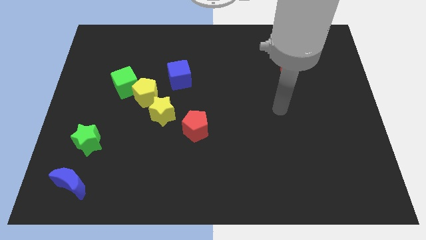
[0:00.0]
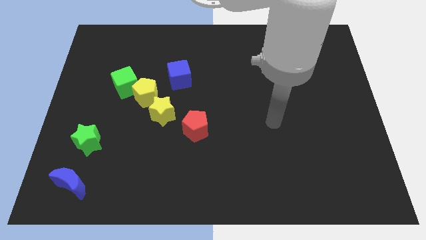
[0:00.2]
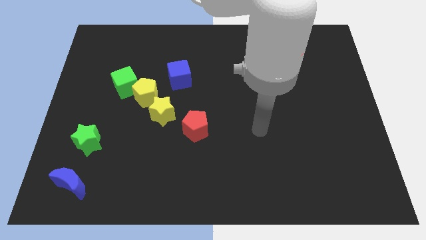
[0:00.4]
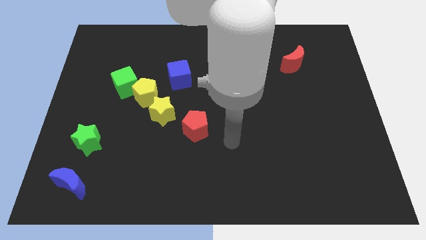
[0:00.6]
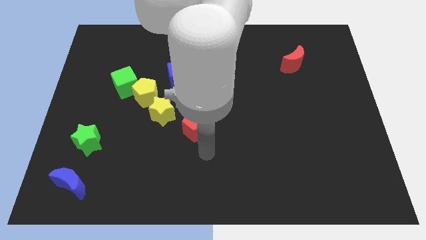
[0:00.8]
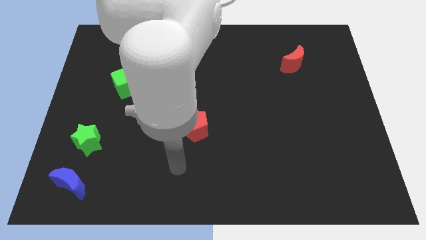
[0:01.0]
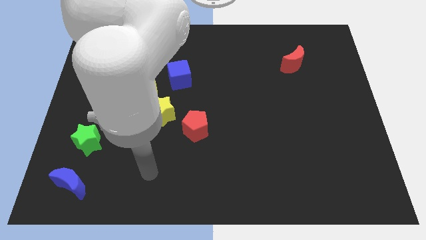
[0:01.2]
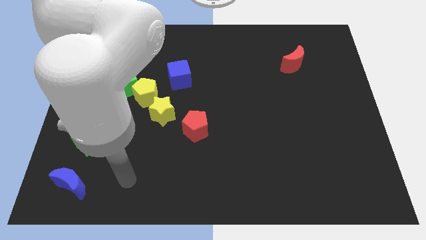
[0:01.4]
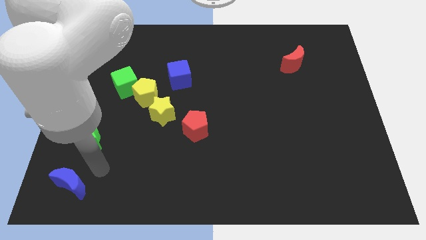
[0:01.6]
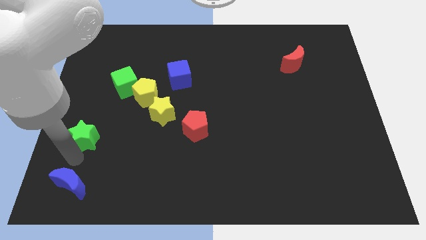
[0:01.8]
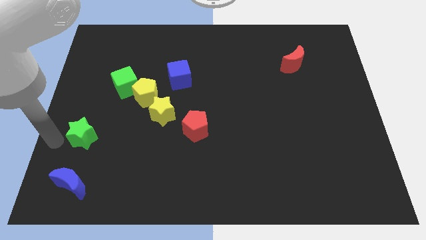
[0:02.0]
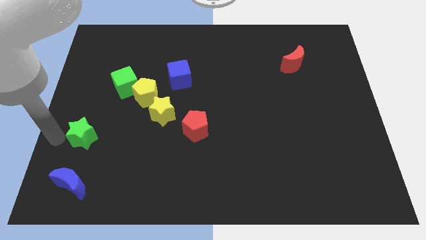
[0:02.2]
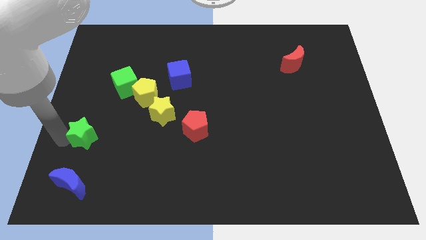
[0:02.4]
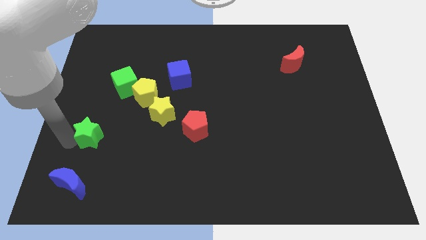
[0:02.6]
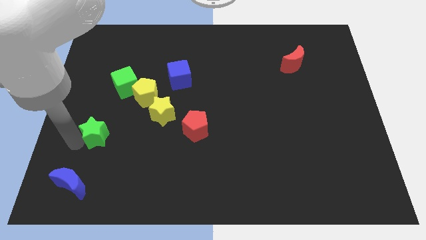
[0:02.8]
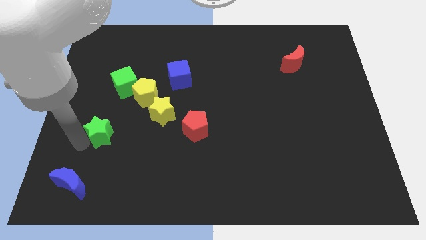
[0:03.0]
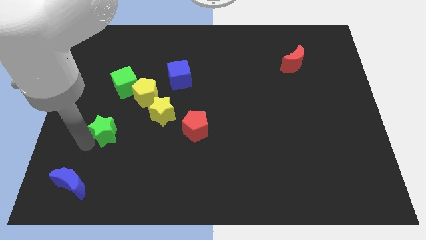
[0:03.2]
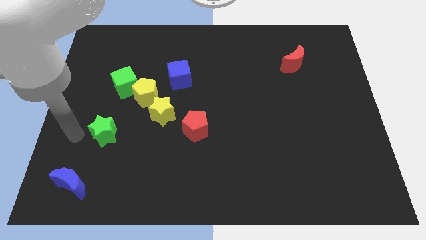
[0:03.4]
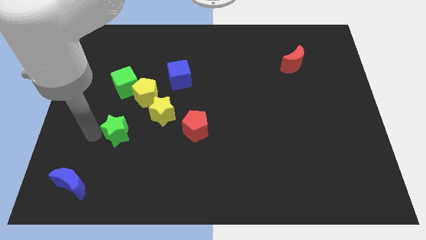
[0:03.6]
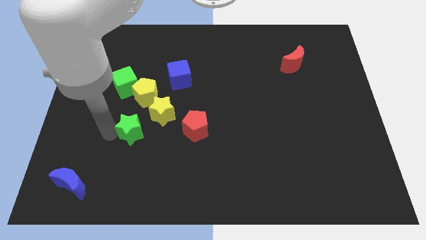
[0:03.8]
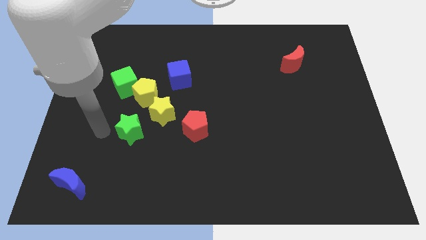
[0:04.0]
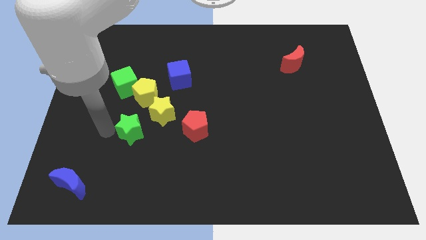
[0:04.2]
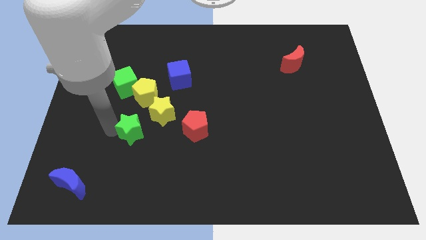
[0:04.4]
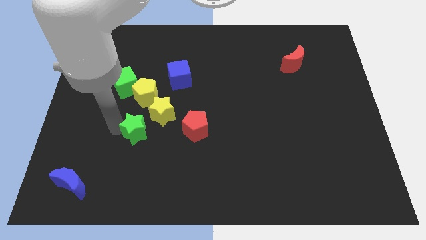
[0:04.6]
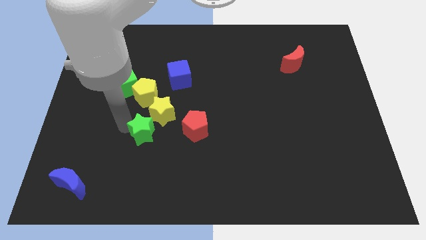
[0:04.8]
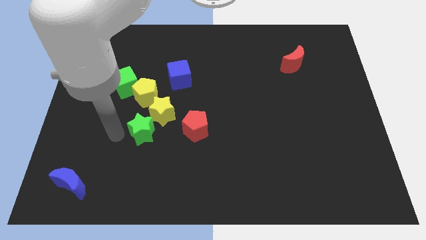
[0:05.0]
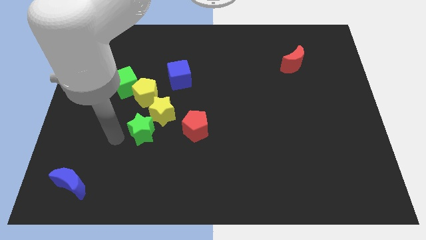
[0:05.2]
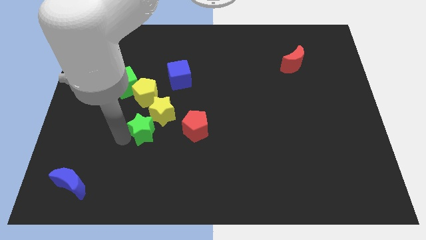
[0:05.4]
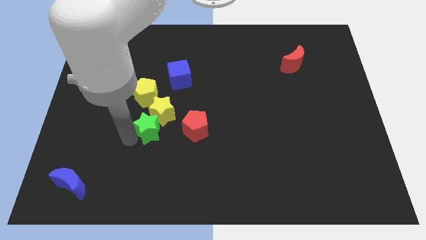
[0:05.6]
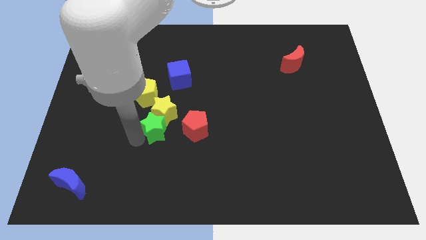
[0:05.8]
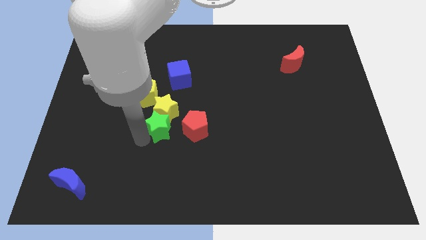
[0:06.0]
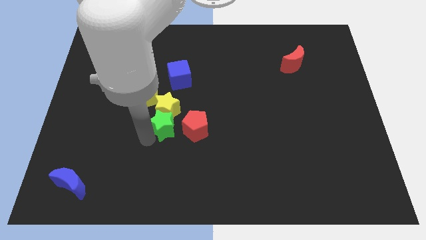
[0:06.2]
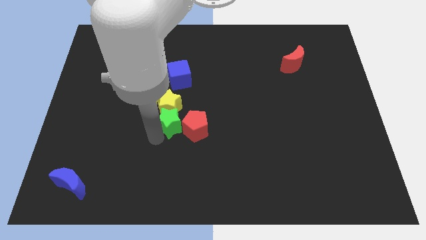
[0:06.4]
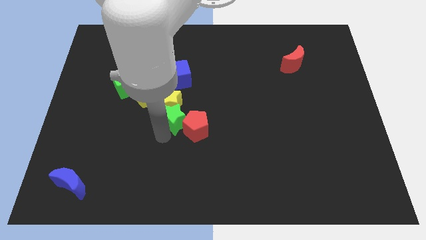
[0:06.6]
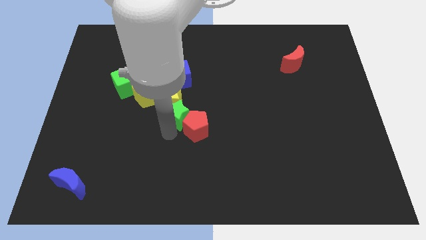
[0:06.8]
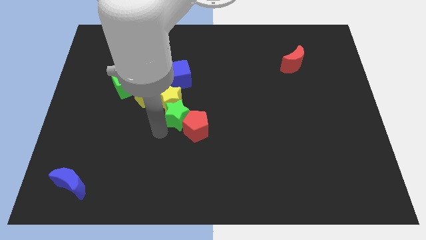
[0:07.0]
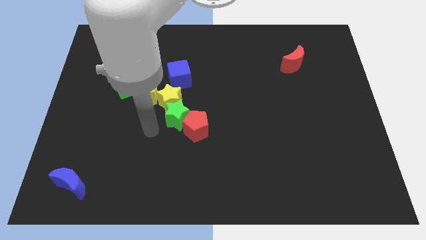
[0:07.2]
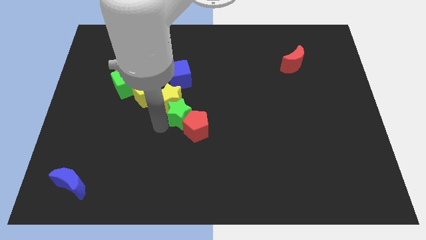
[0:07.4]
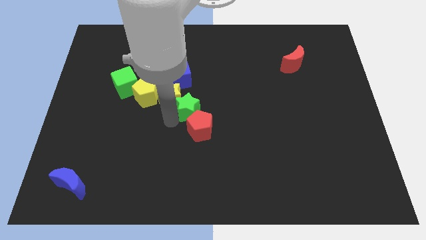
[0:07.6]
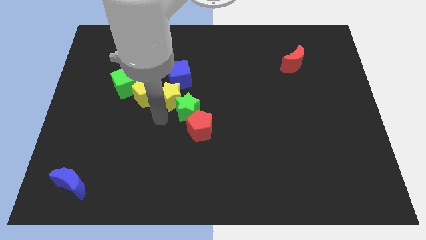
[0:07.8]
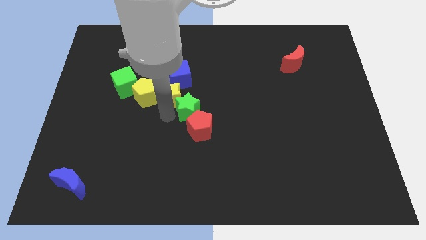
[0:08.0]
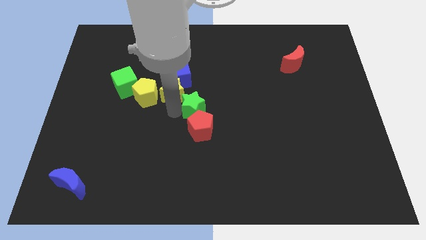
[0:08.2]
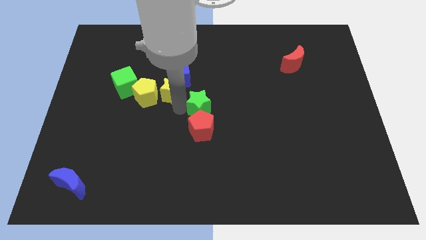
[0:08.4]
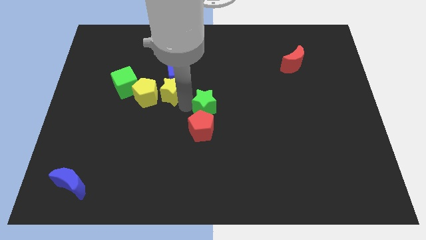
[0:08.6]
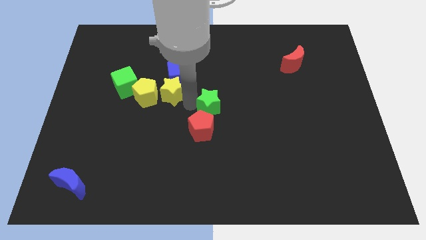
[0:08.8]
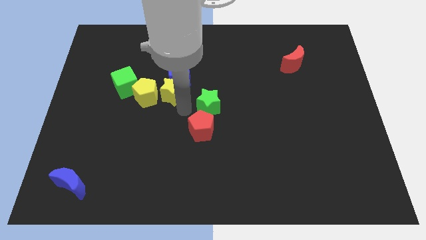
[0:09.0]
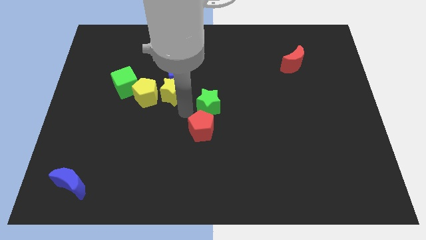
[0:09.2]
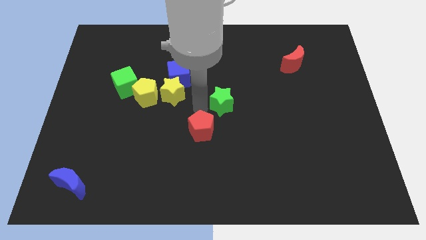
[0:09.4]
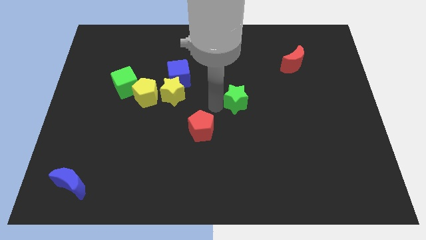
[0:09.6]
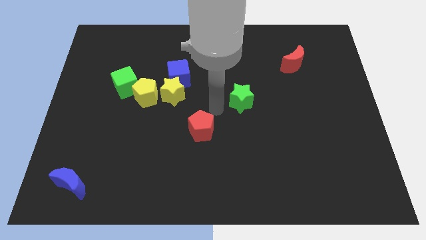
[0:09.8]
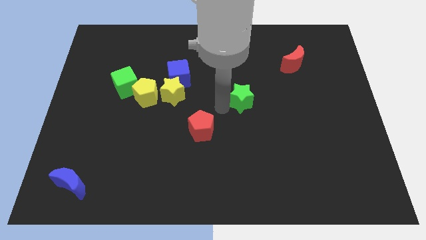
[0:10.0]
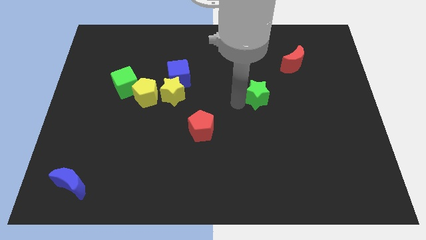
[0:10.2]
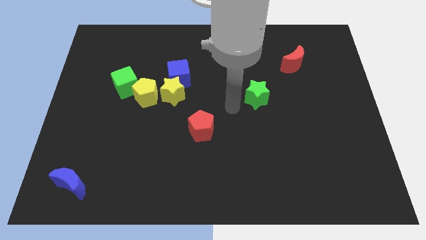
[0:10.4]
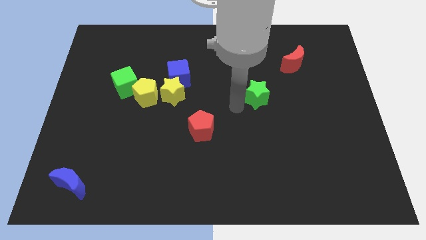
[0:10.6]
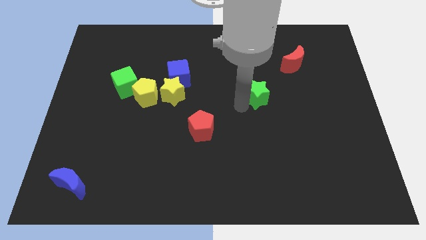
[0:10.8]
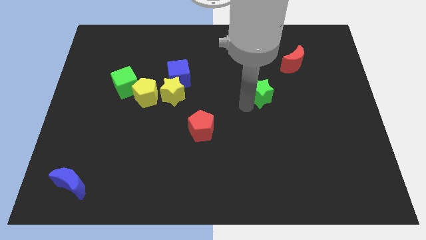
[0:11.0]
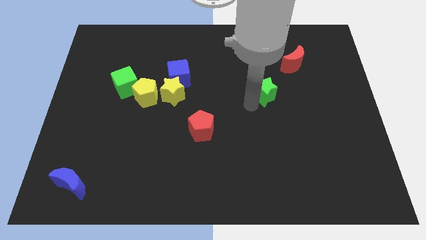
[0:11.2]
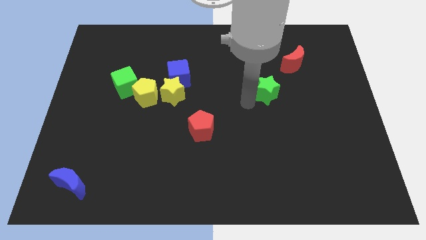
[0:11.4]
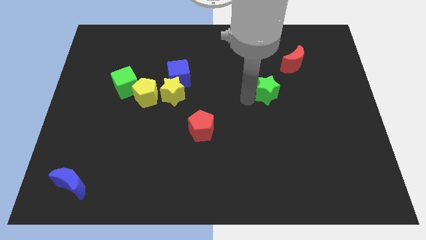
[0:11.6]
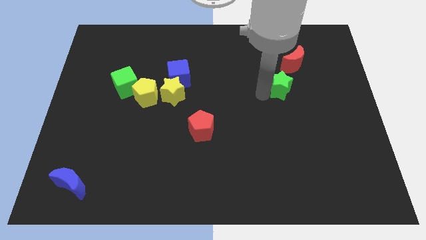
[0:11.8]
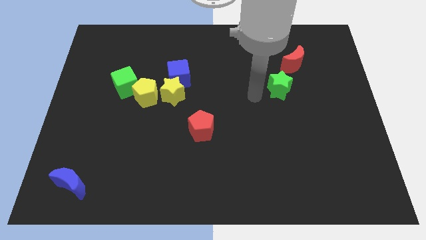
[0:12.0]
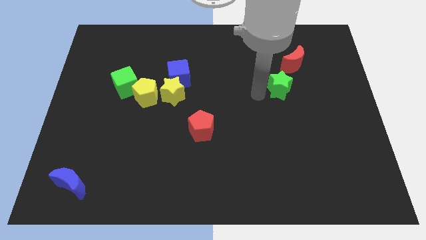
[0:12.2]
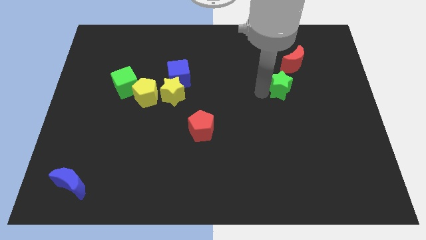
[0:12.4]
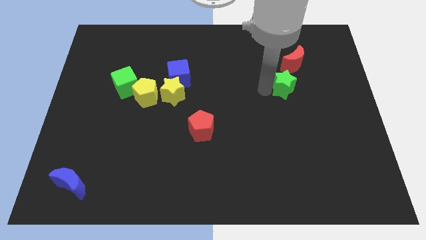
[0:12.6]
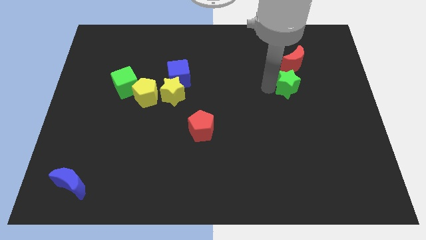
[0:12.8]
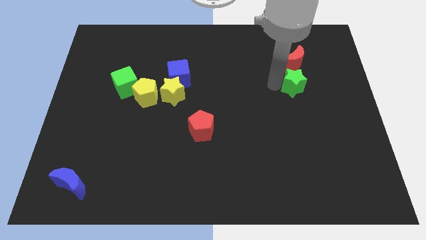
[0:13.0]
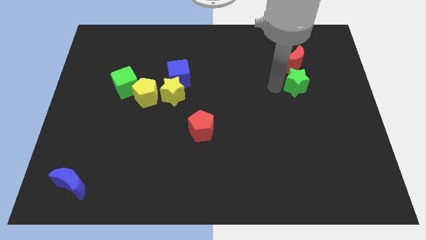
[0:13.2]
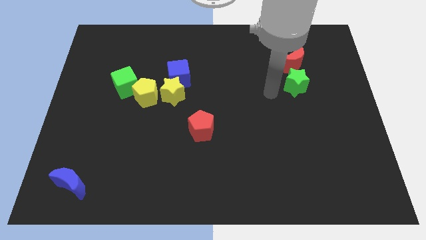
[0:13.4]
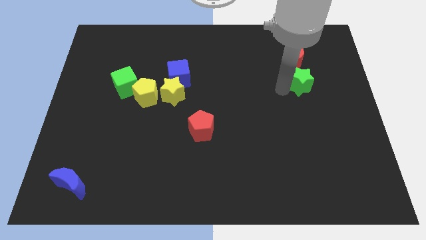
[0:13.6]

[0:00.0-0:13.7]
push the green star diagonally down and to the right of the red moon
